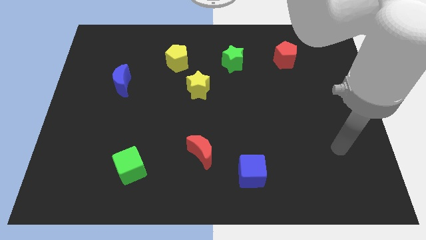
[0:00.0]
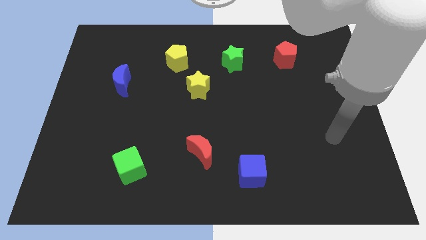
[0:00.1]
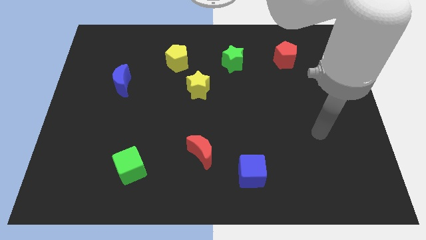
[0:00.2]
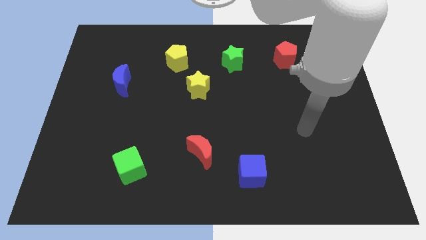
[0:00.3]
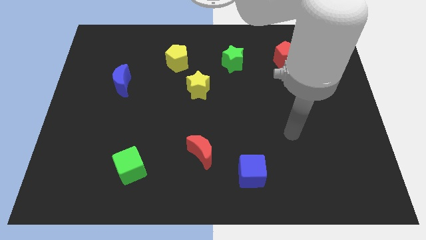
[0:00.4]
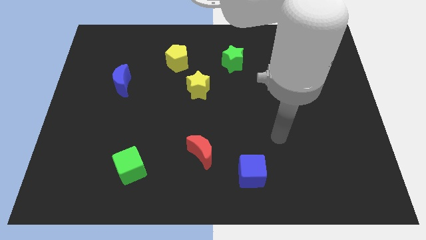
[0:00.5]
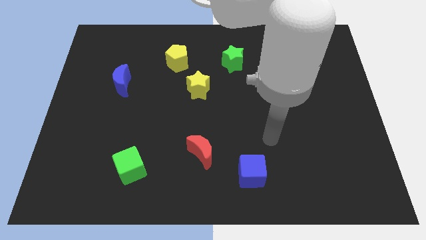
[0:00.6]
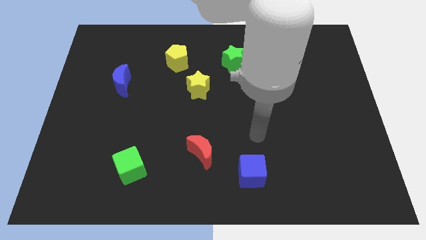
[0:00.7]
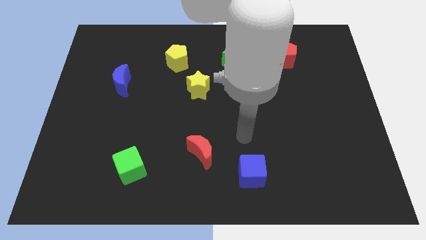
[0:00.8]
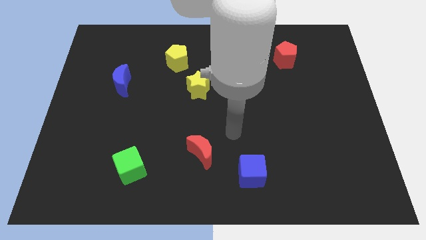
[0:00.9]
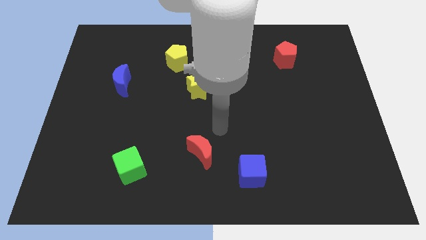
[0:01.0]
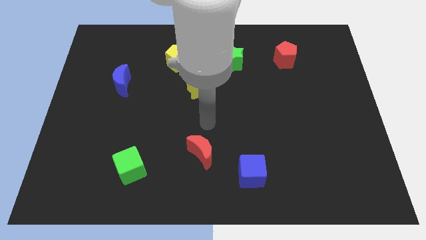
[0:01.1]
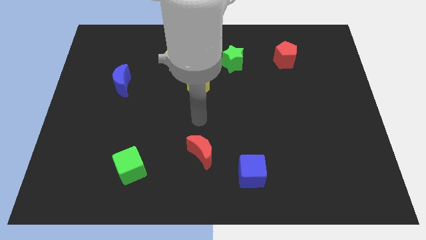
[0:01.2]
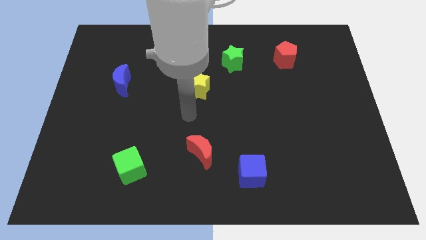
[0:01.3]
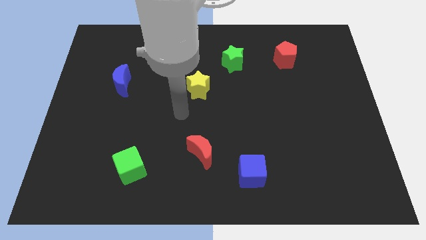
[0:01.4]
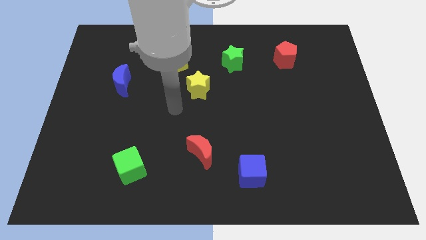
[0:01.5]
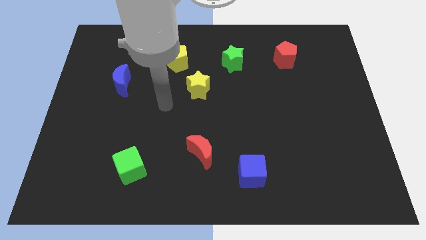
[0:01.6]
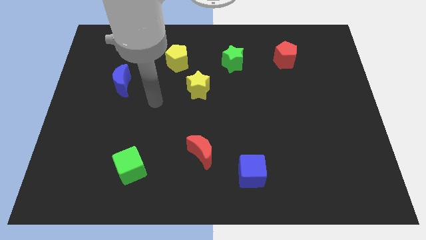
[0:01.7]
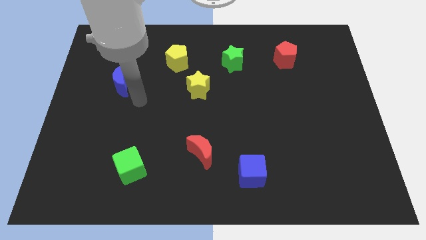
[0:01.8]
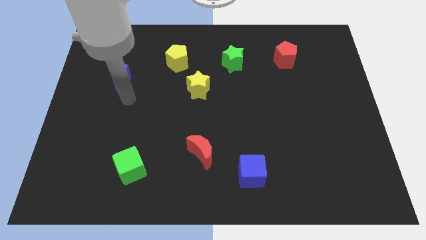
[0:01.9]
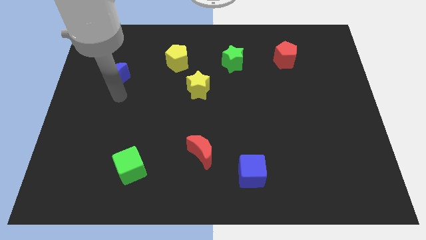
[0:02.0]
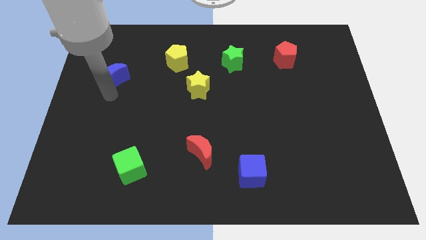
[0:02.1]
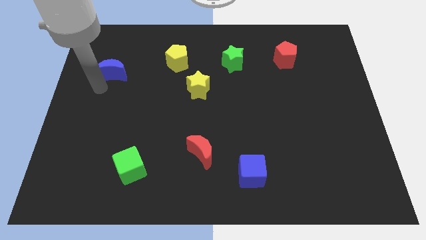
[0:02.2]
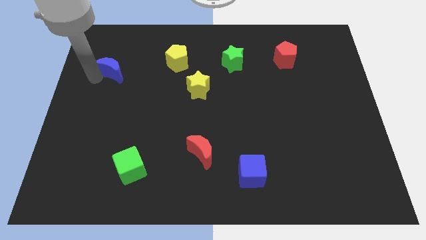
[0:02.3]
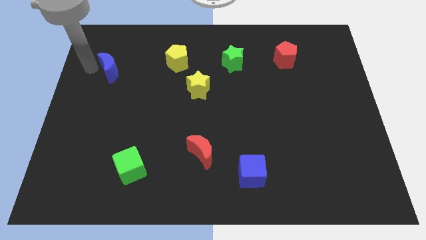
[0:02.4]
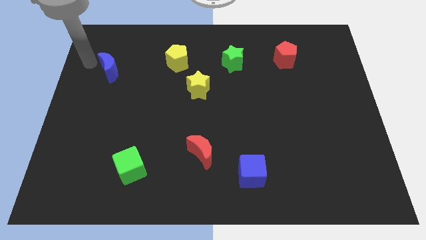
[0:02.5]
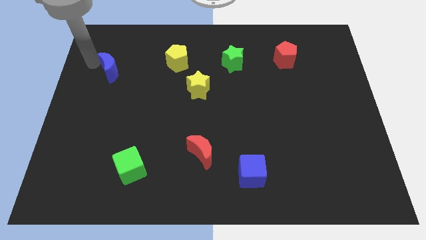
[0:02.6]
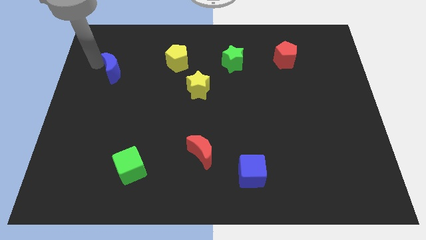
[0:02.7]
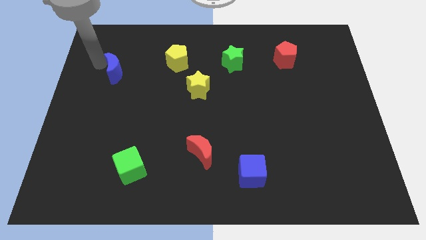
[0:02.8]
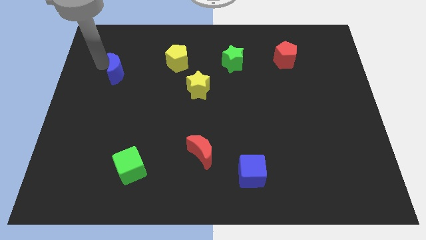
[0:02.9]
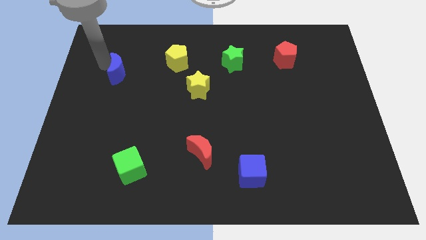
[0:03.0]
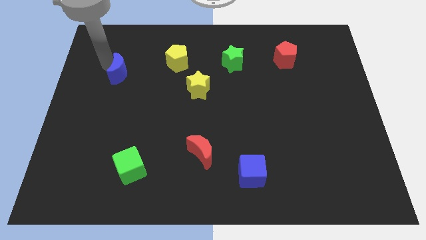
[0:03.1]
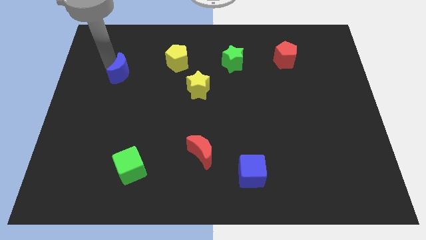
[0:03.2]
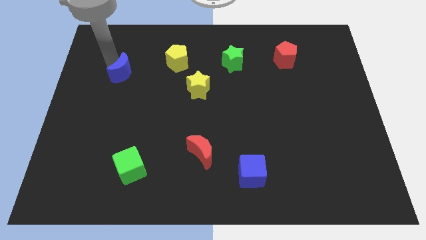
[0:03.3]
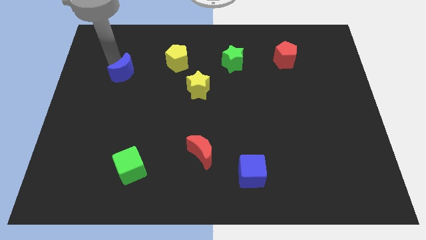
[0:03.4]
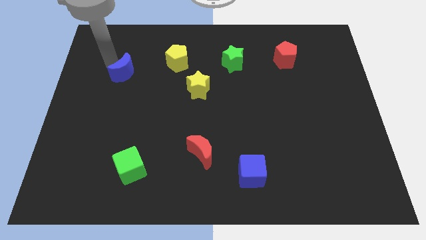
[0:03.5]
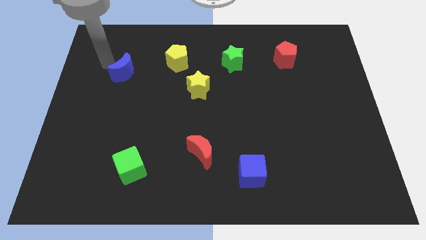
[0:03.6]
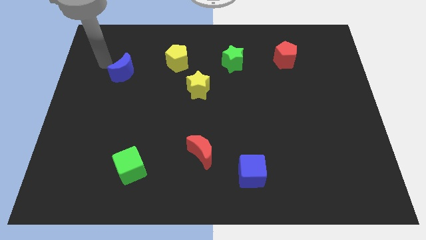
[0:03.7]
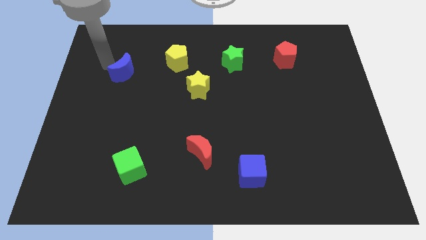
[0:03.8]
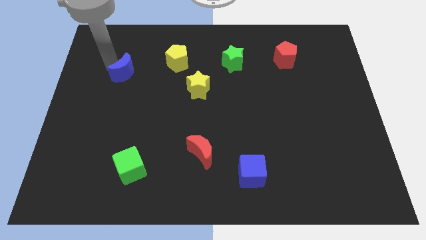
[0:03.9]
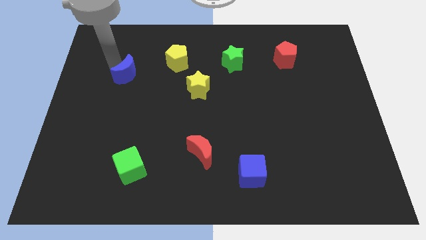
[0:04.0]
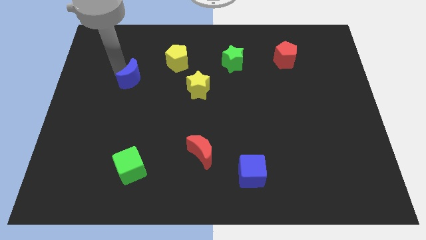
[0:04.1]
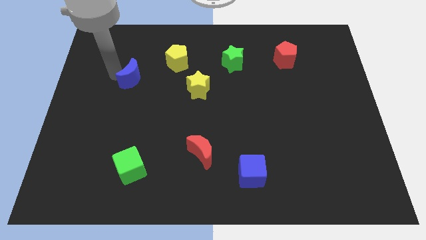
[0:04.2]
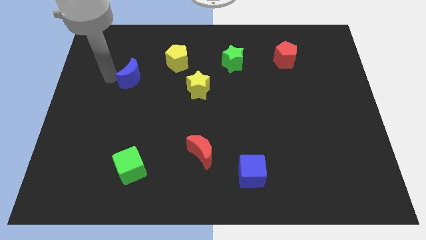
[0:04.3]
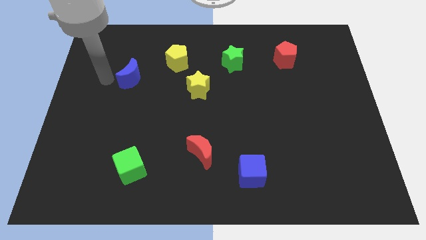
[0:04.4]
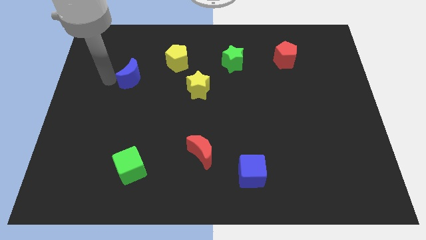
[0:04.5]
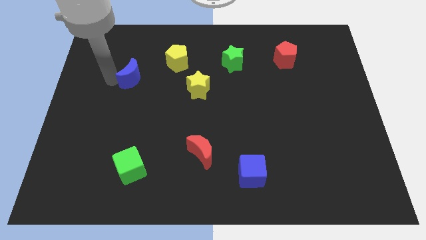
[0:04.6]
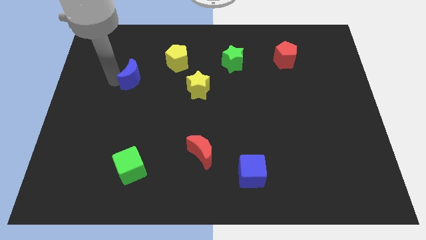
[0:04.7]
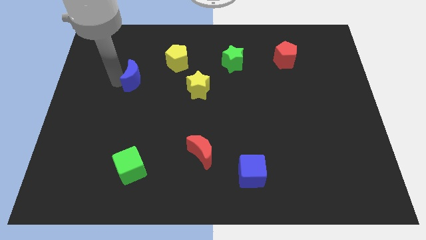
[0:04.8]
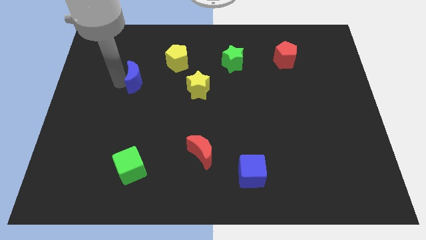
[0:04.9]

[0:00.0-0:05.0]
put the blue moon to the bottom left side of the yellow pentagon

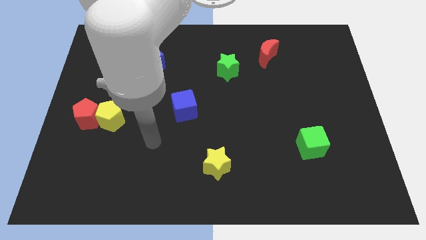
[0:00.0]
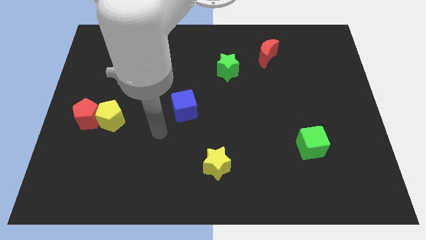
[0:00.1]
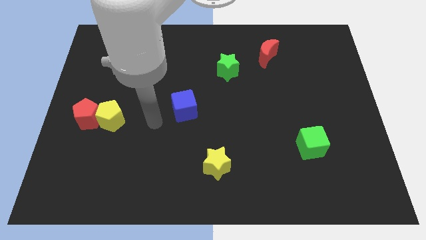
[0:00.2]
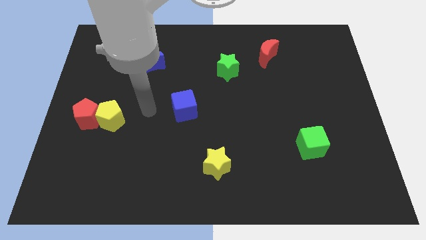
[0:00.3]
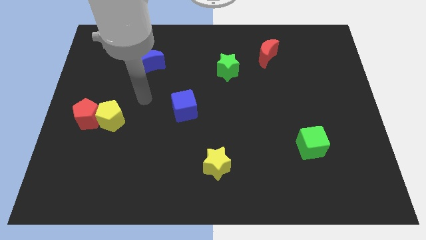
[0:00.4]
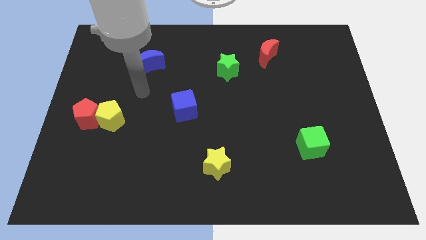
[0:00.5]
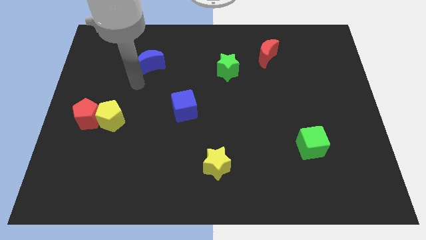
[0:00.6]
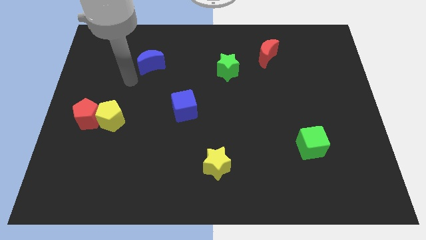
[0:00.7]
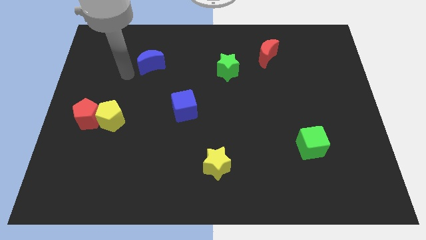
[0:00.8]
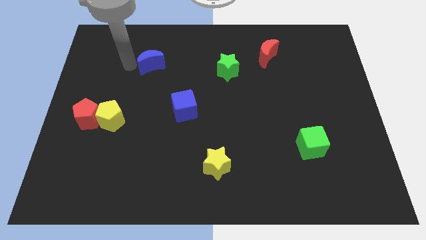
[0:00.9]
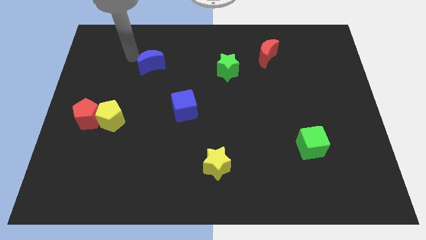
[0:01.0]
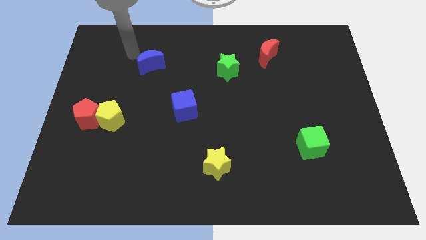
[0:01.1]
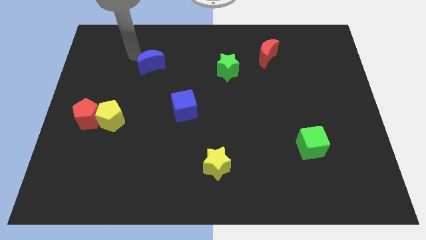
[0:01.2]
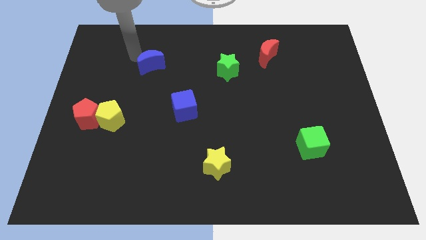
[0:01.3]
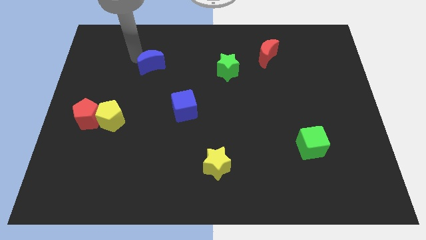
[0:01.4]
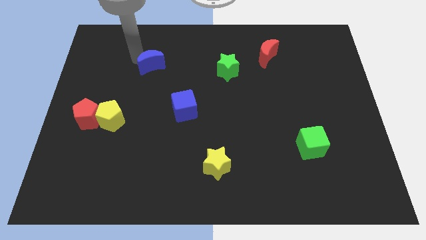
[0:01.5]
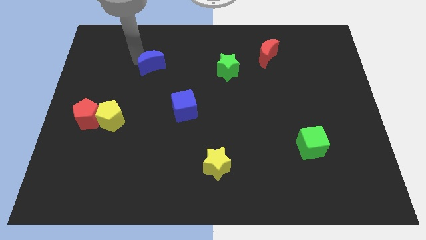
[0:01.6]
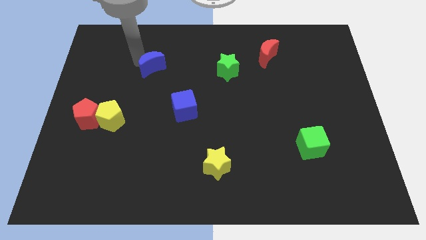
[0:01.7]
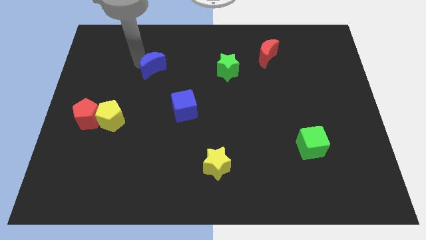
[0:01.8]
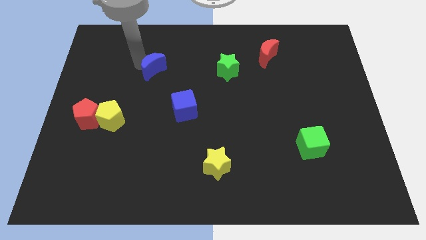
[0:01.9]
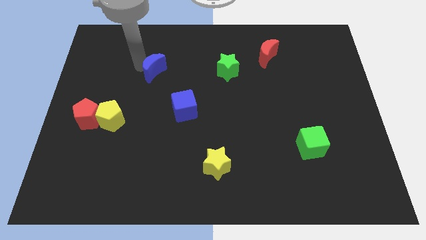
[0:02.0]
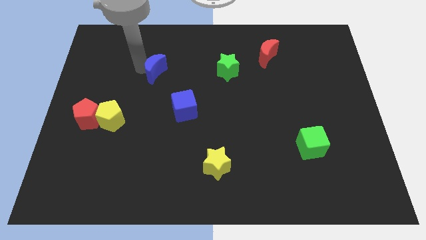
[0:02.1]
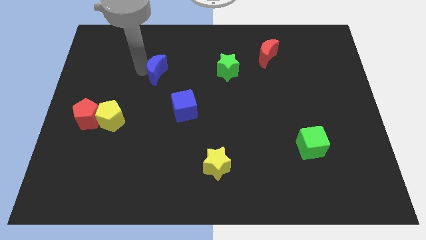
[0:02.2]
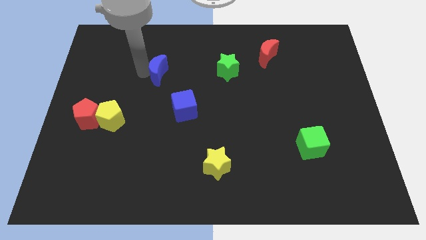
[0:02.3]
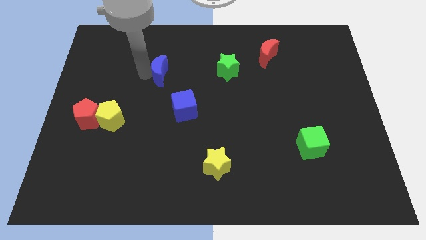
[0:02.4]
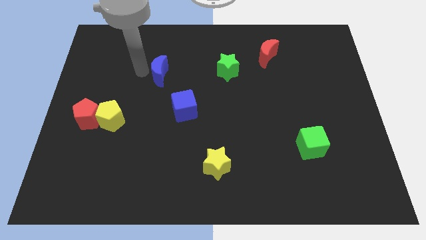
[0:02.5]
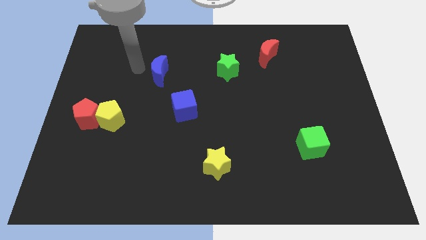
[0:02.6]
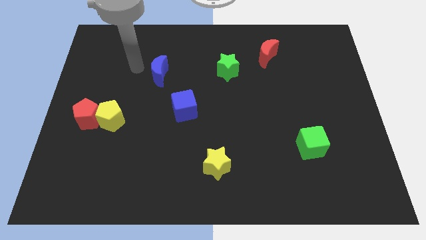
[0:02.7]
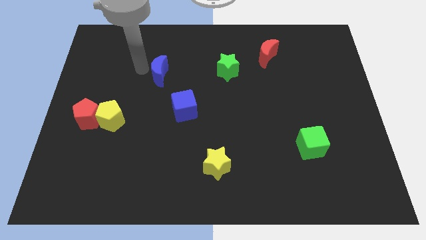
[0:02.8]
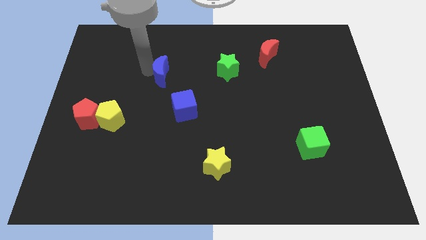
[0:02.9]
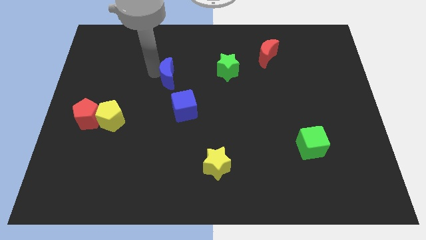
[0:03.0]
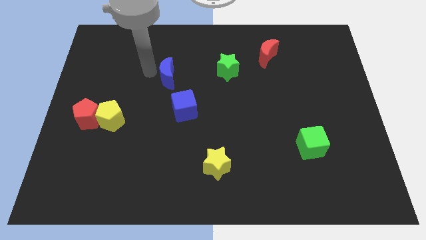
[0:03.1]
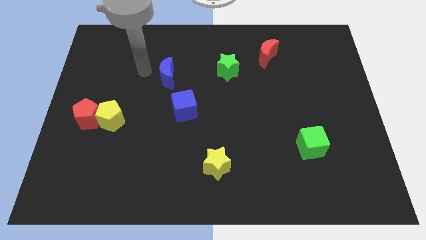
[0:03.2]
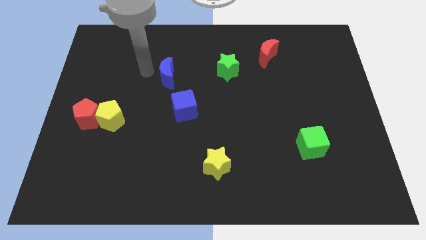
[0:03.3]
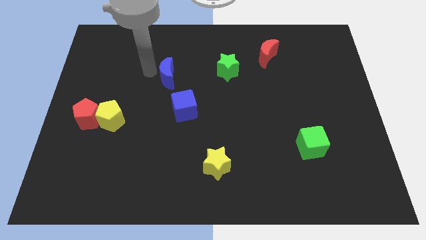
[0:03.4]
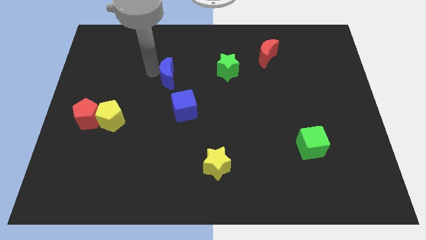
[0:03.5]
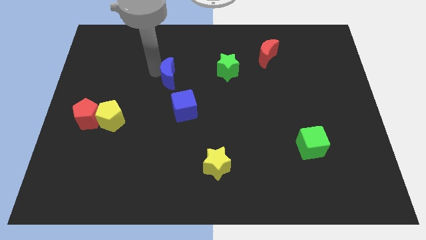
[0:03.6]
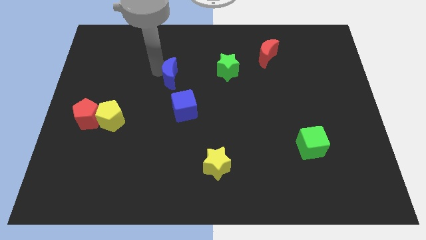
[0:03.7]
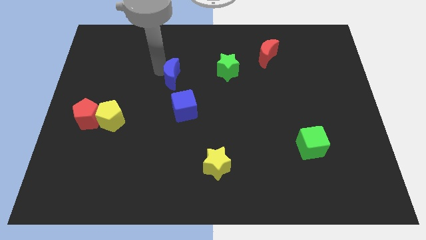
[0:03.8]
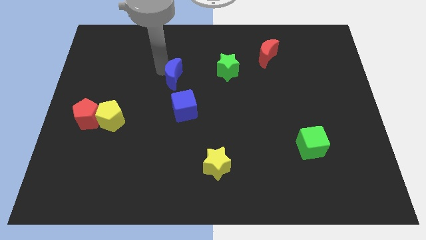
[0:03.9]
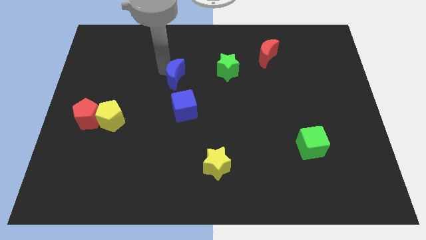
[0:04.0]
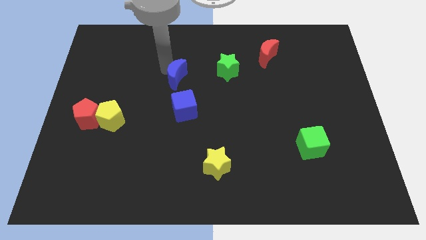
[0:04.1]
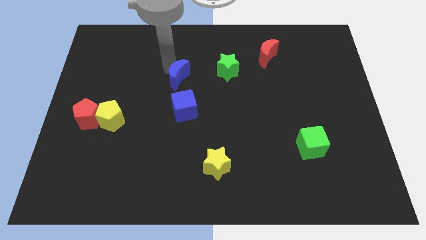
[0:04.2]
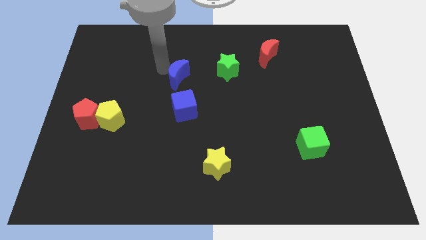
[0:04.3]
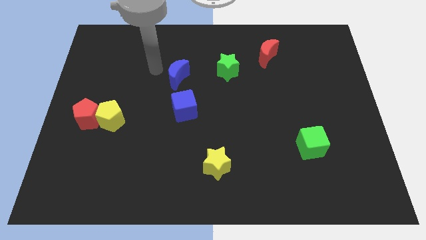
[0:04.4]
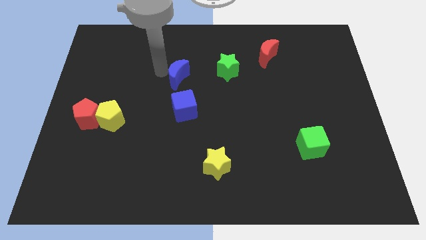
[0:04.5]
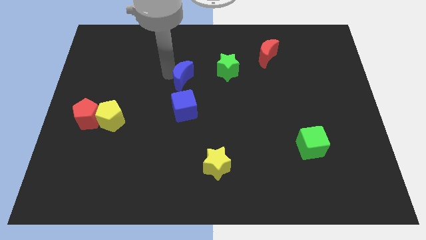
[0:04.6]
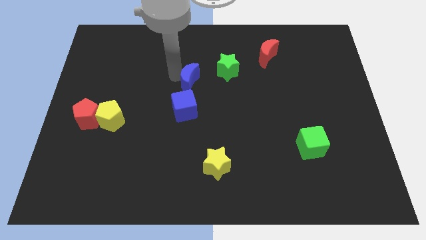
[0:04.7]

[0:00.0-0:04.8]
move the blue moon to the bottom left side of the green star
